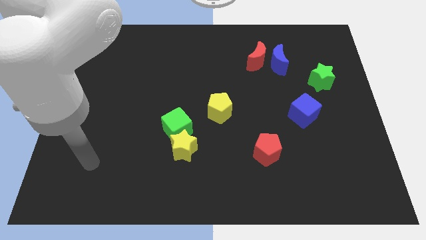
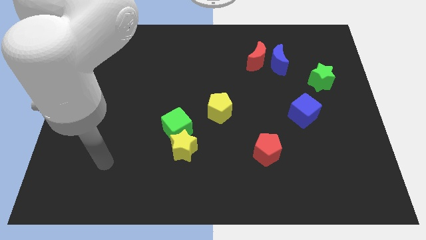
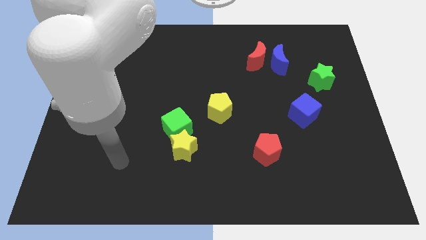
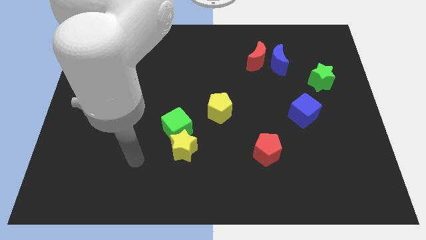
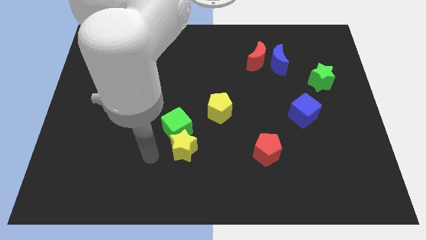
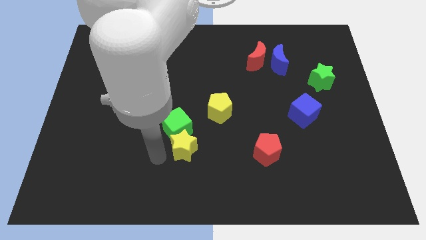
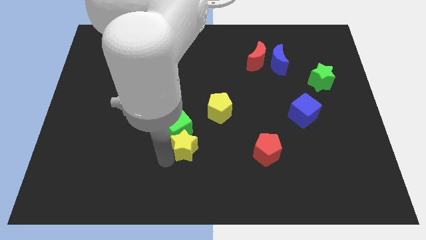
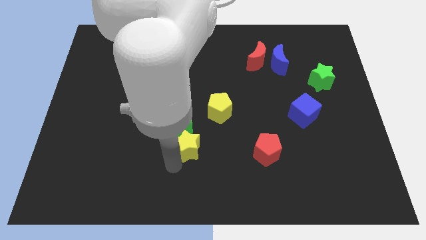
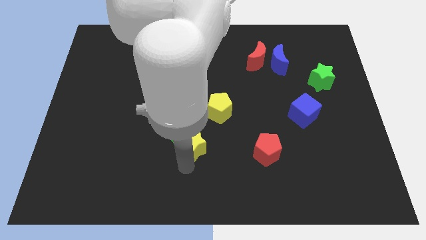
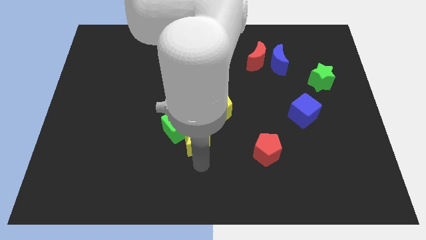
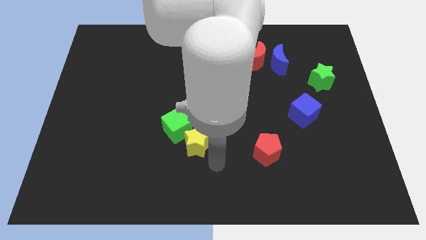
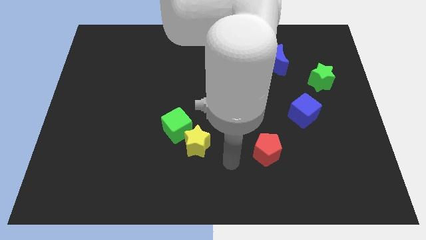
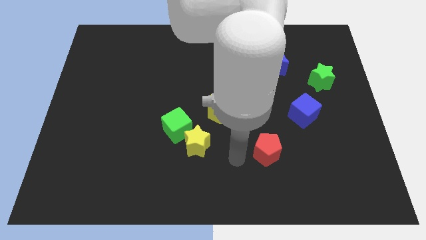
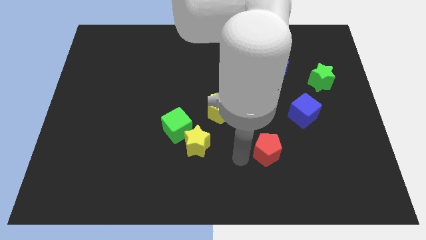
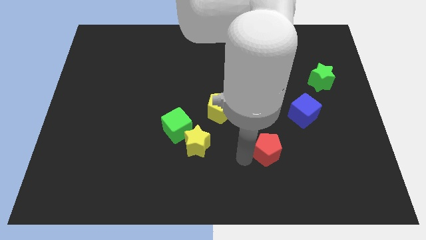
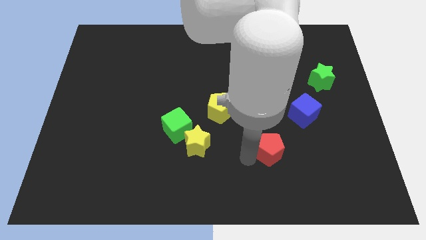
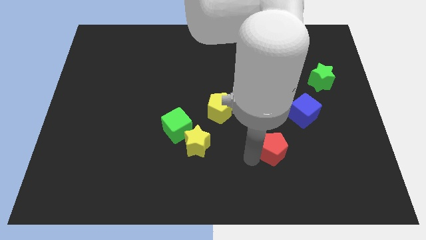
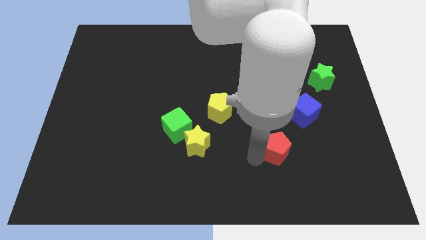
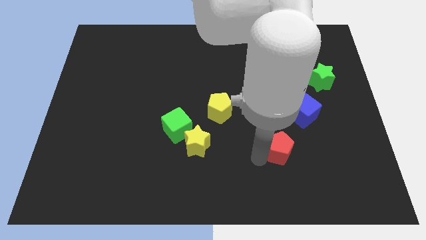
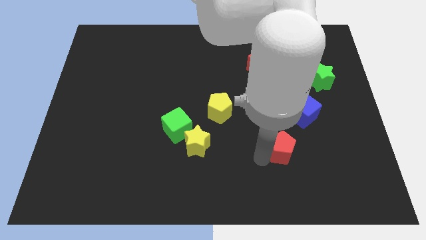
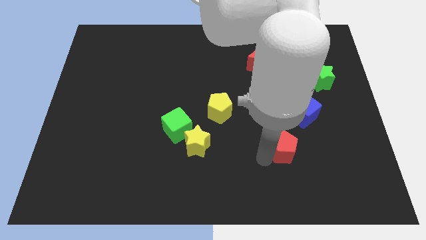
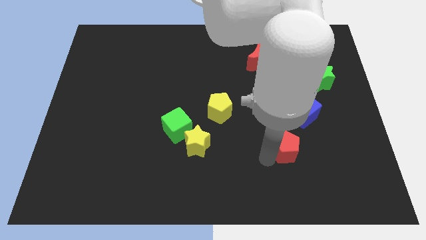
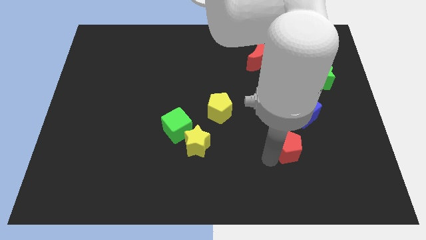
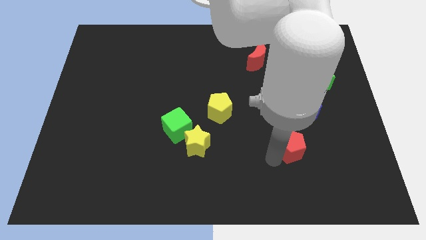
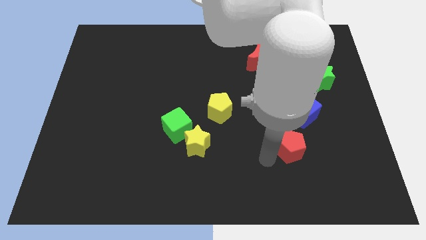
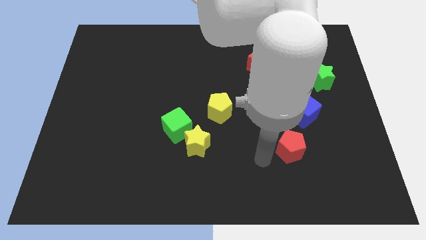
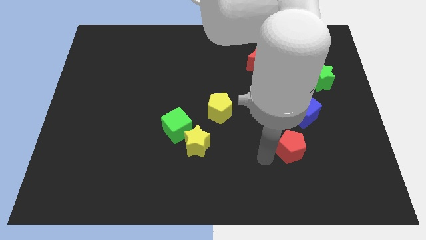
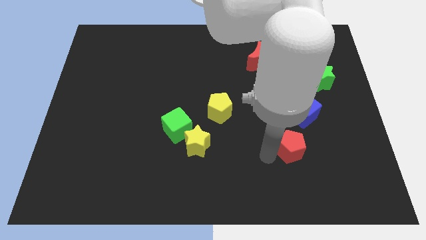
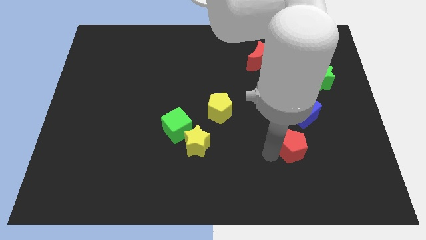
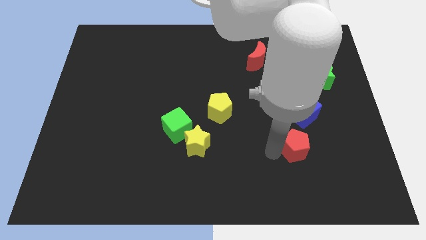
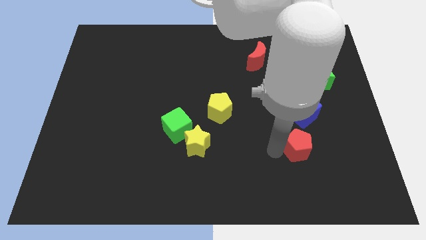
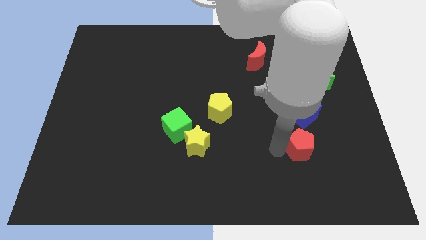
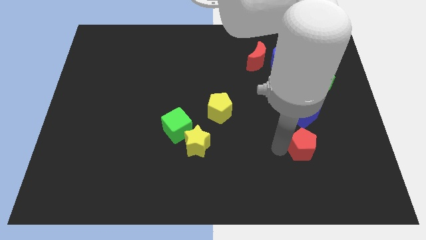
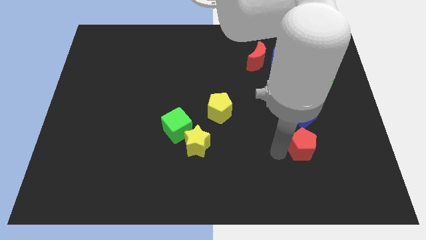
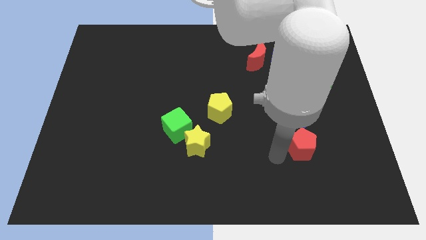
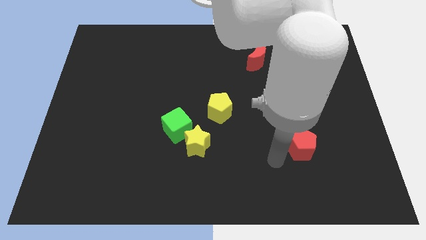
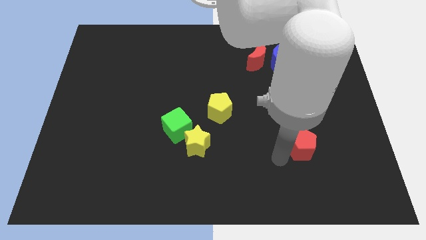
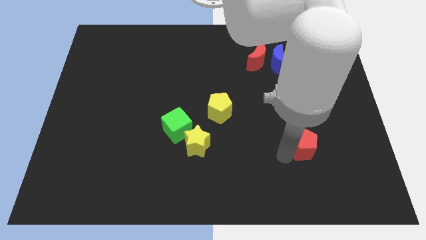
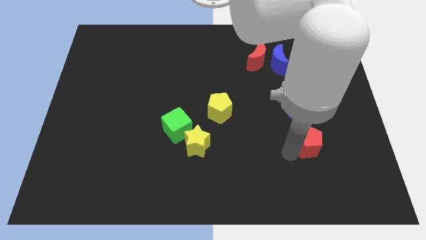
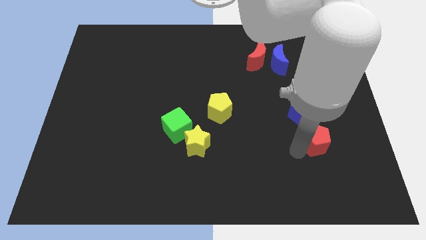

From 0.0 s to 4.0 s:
slide the red pentagon upwards and right diagonally a little

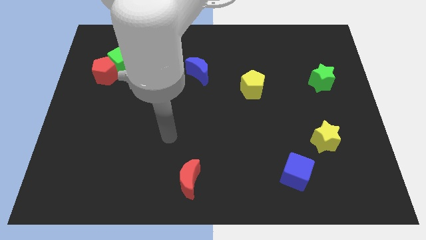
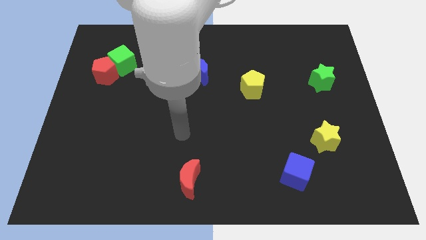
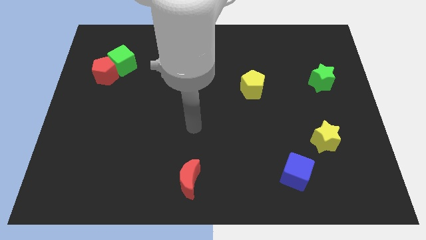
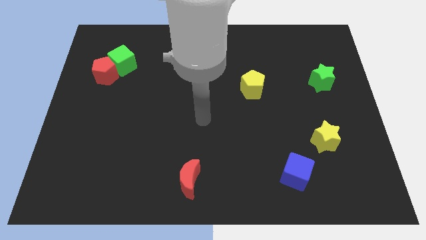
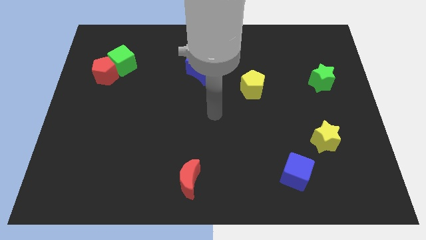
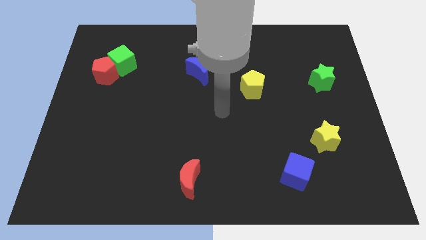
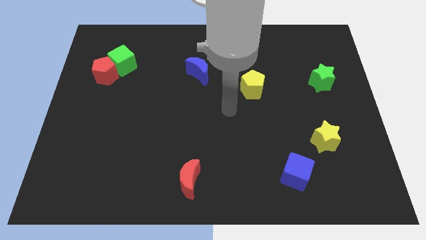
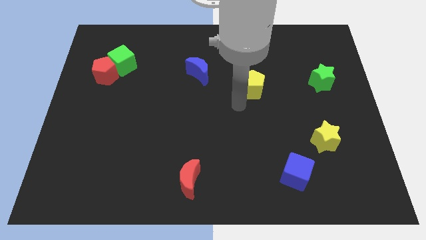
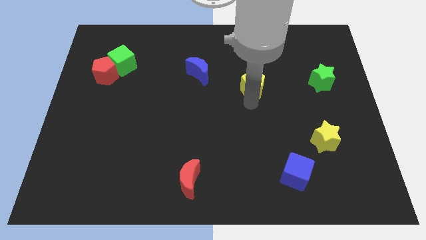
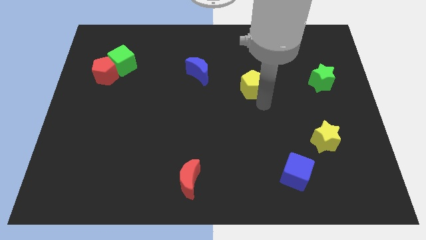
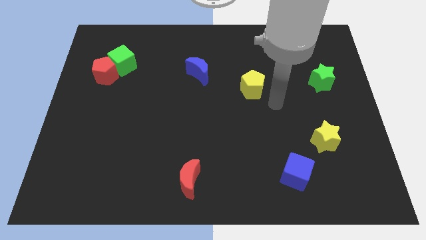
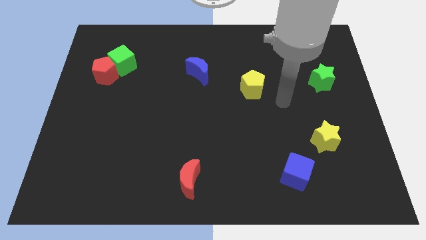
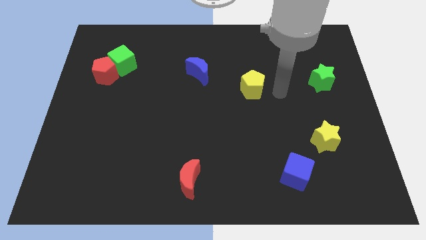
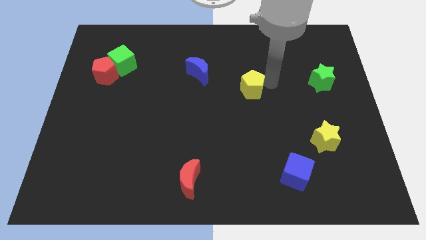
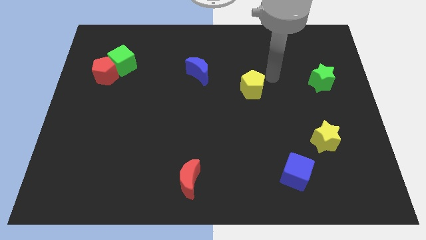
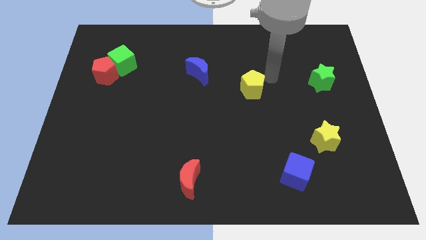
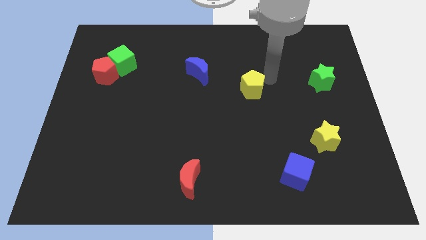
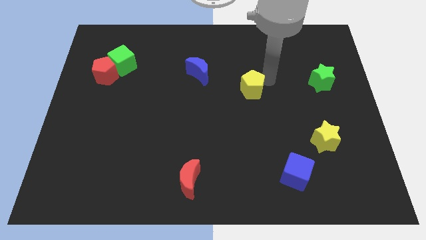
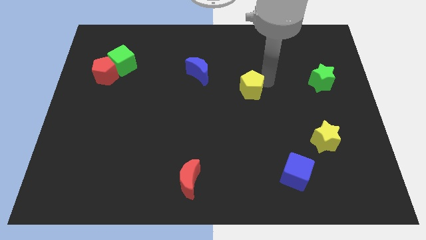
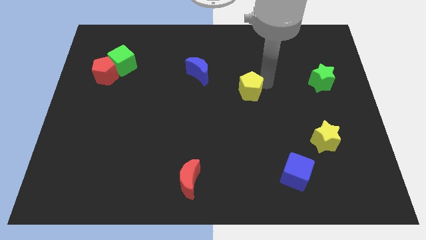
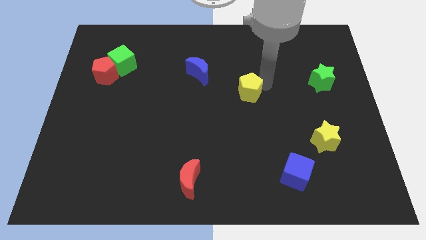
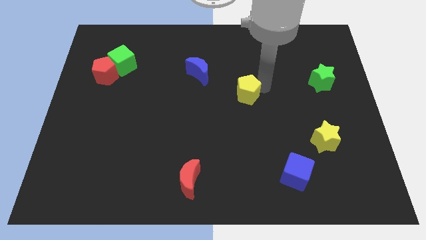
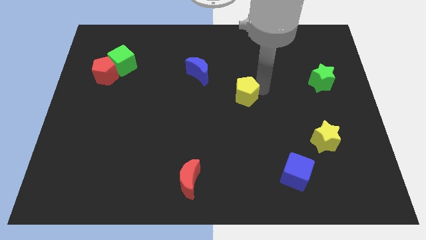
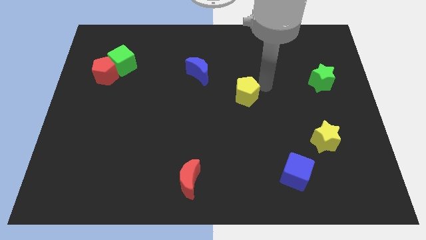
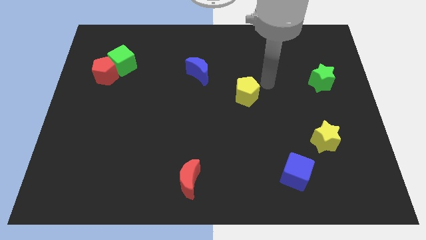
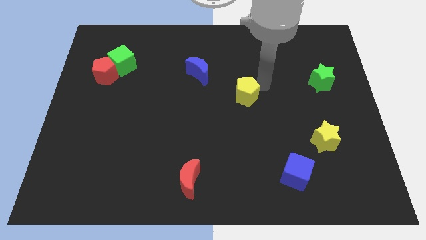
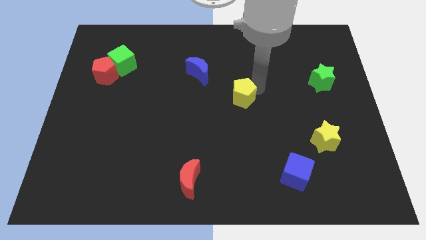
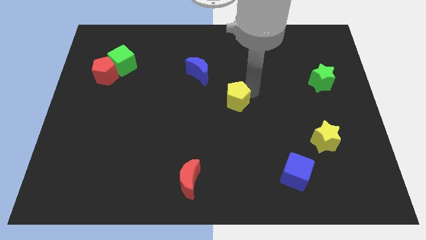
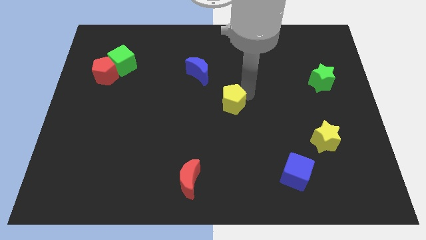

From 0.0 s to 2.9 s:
move the yellow pentagon slightly diagonally downwards and to the left

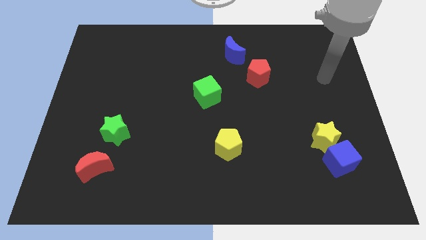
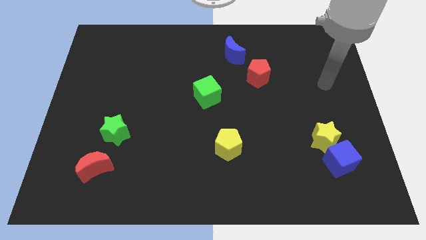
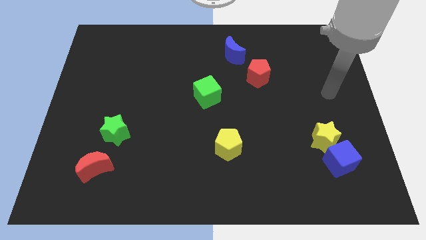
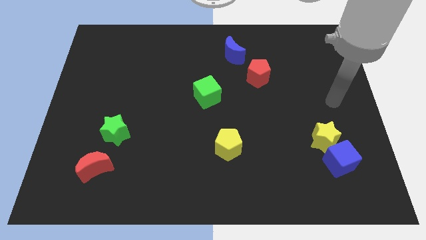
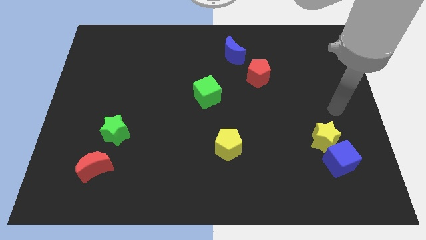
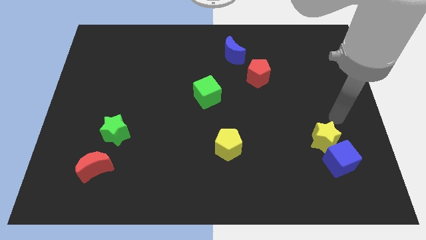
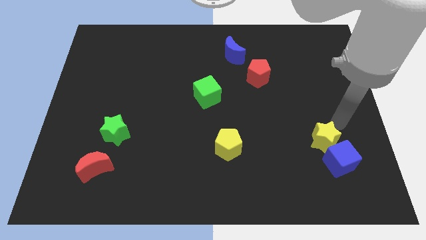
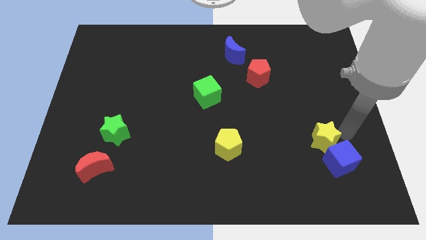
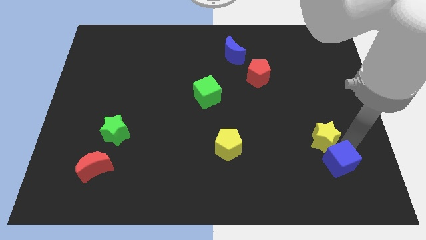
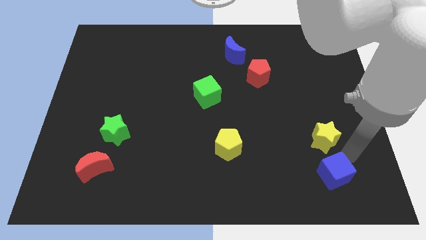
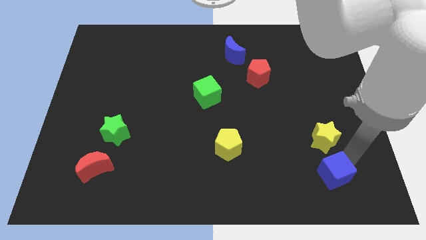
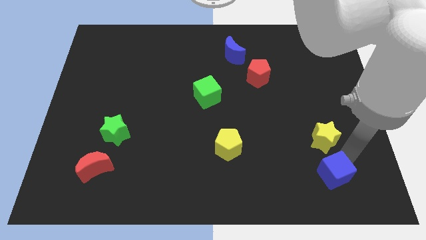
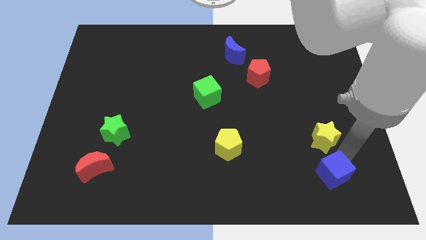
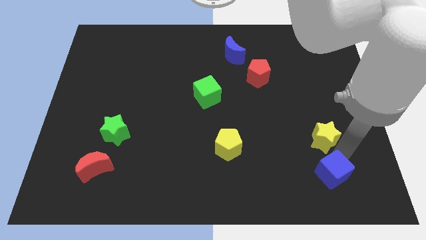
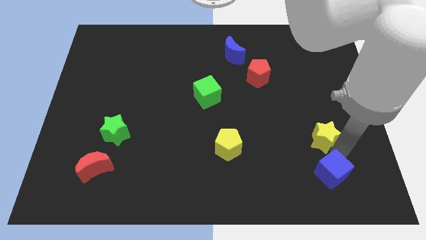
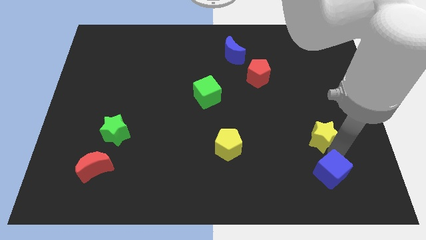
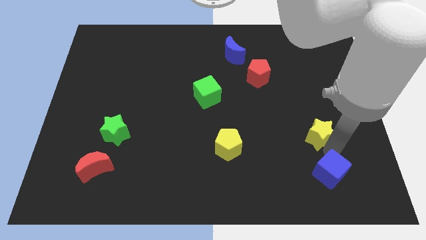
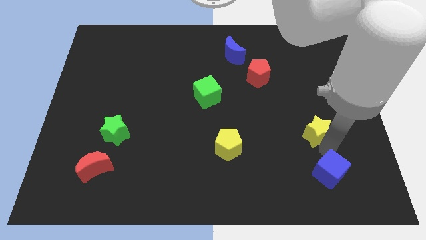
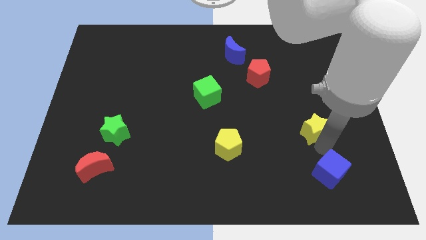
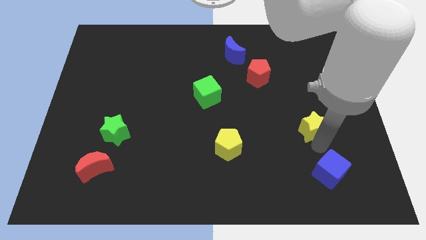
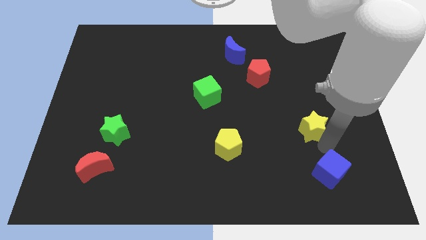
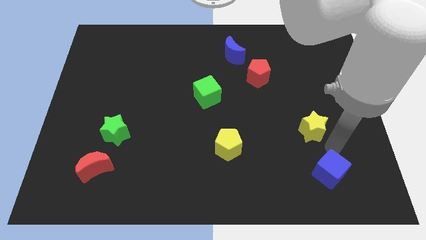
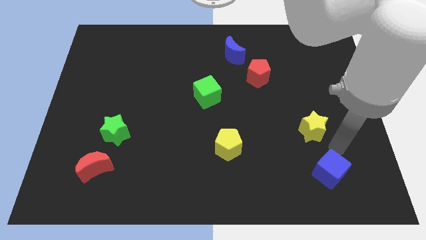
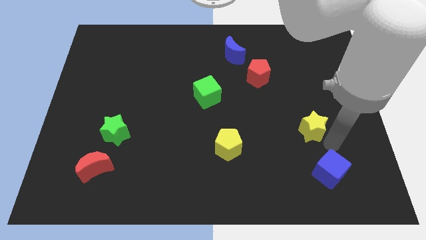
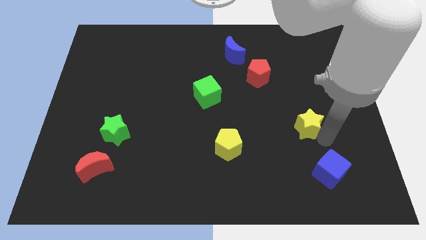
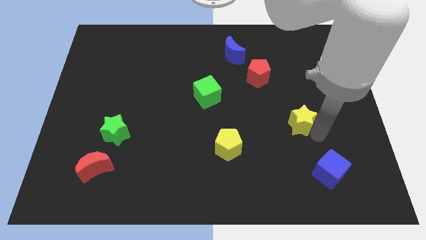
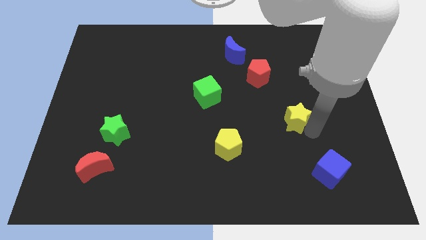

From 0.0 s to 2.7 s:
slightly slide the yellow star up and to the left diagonally
